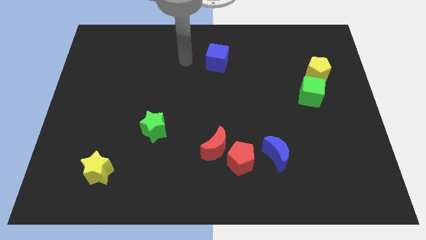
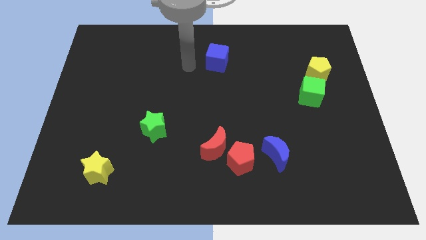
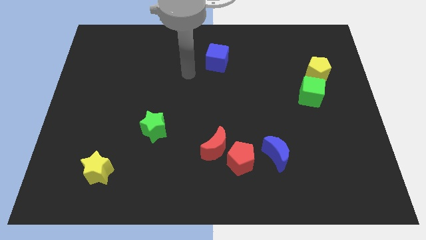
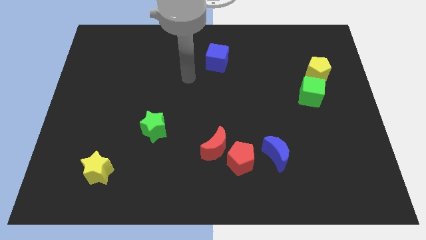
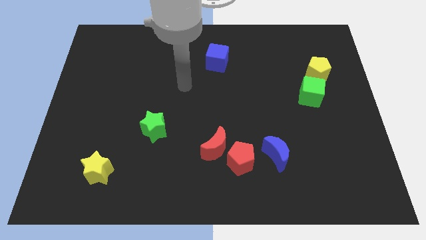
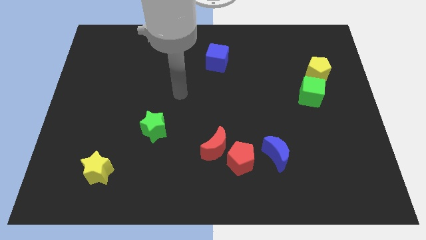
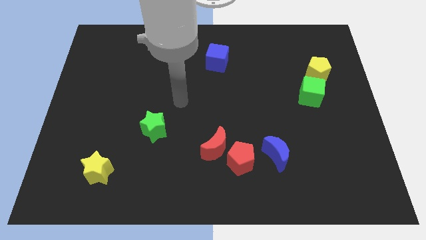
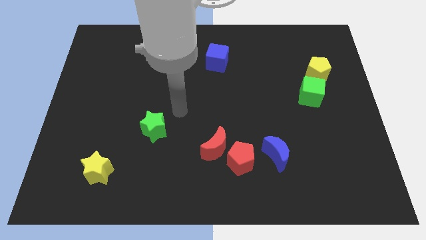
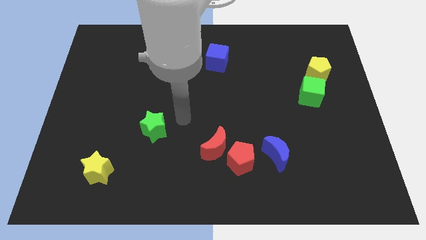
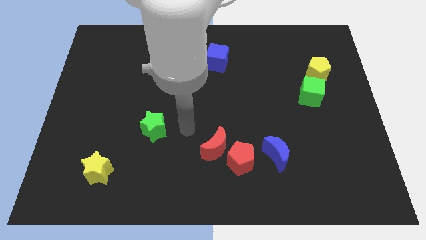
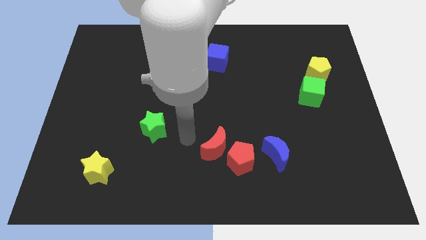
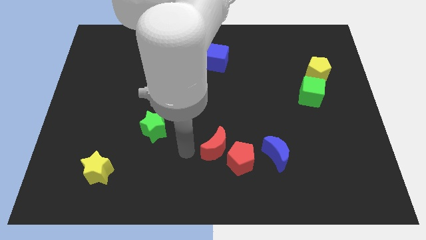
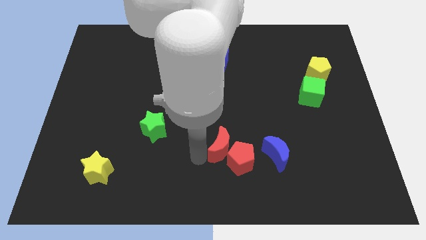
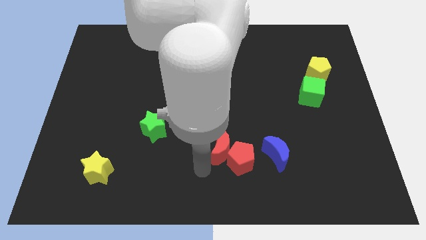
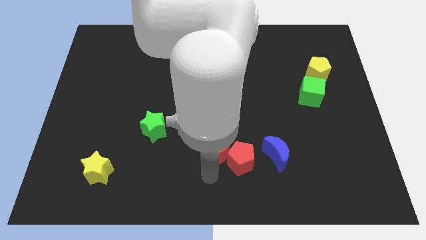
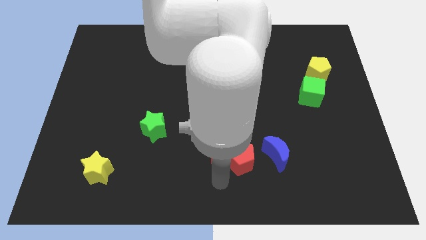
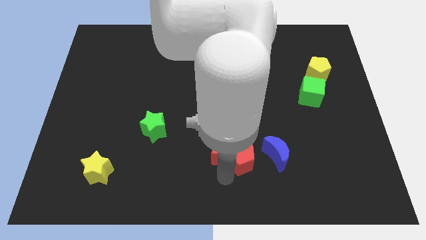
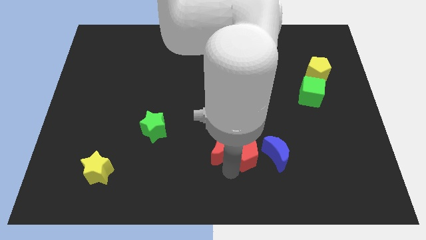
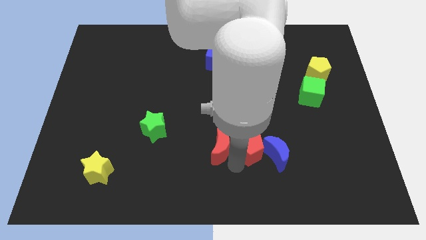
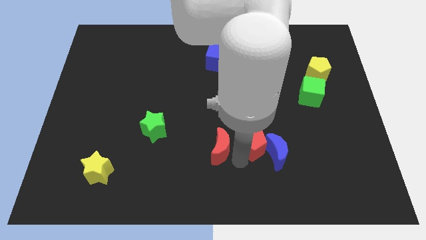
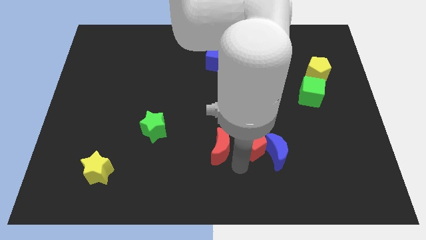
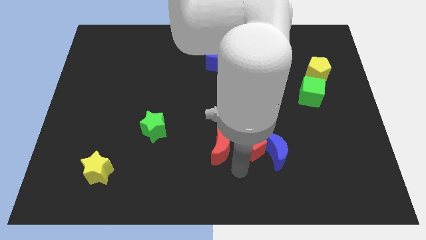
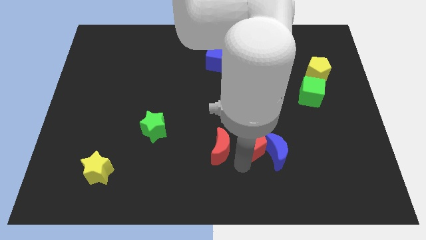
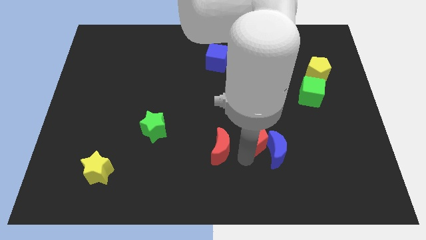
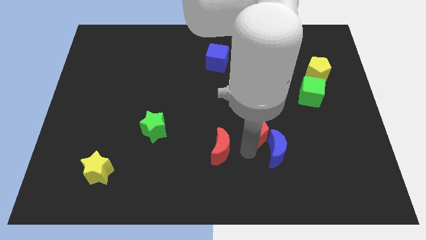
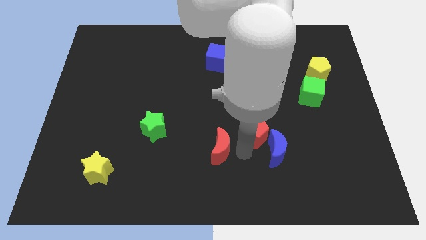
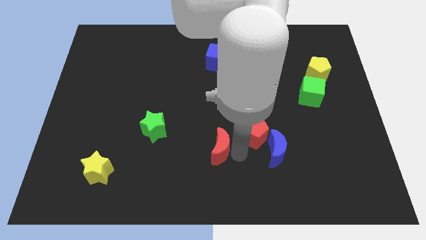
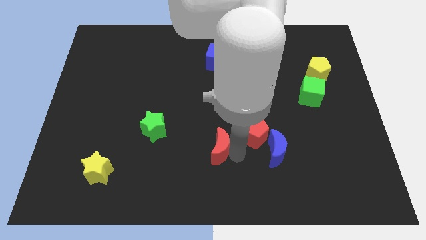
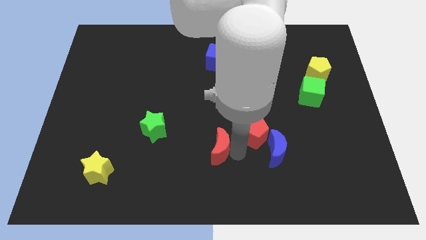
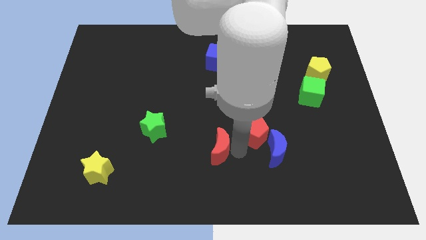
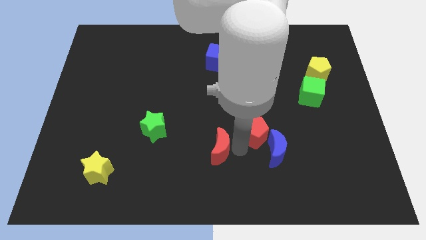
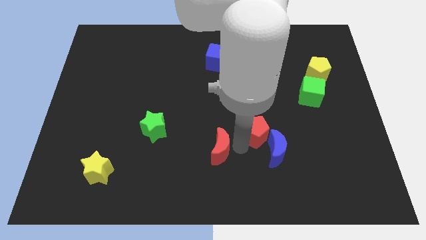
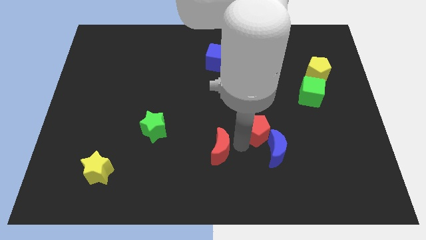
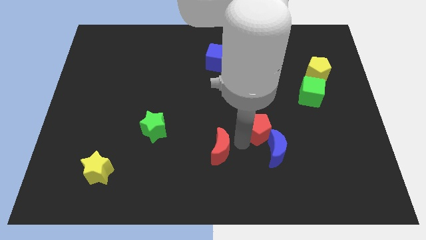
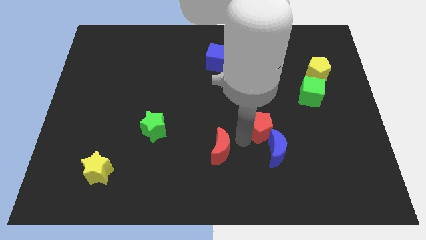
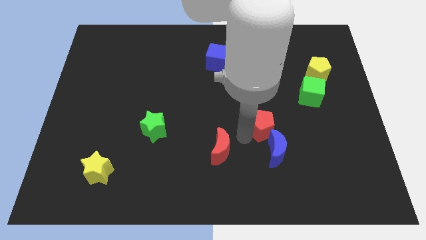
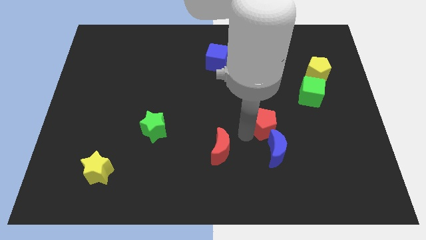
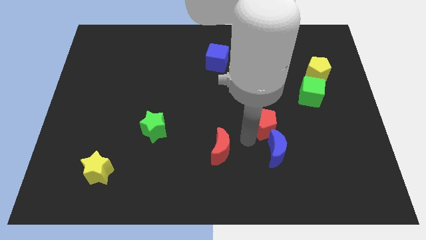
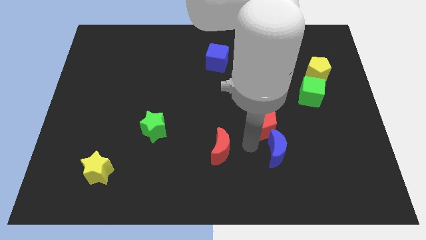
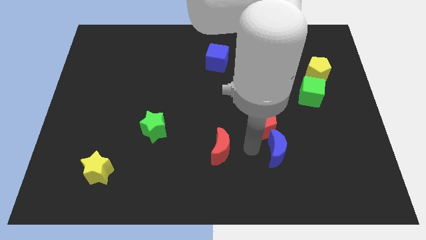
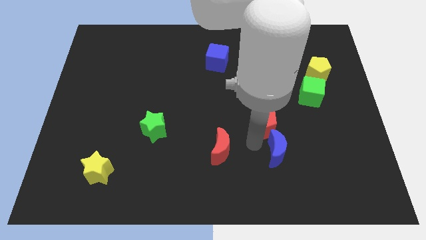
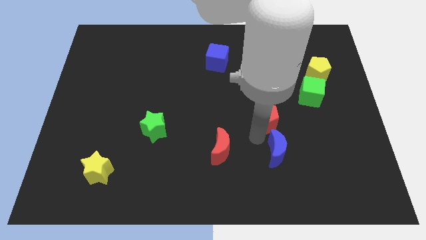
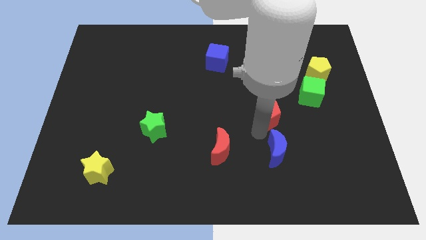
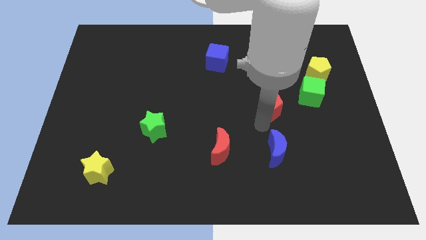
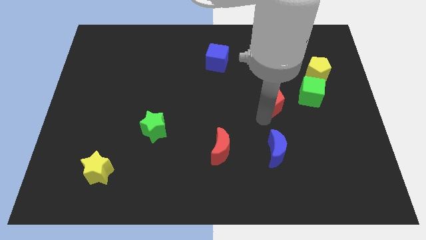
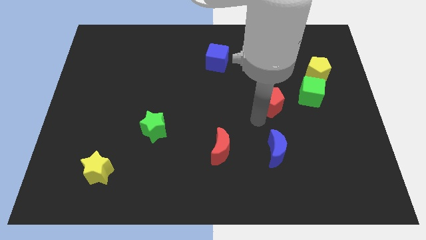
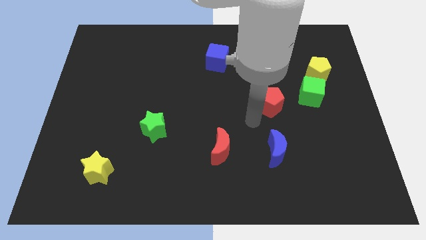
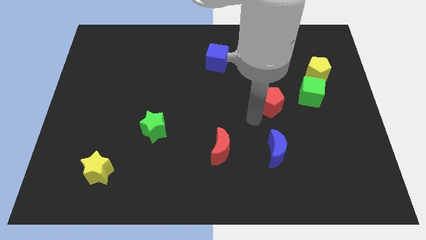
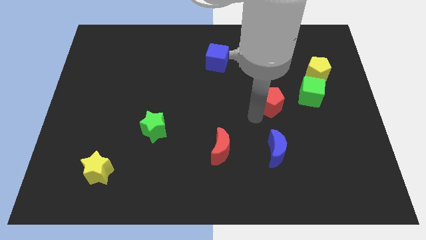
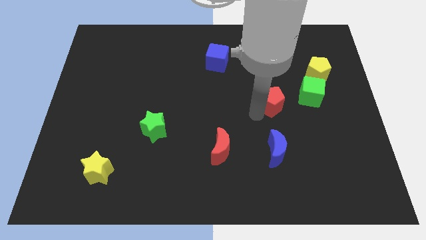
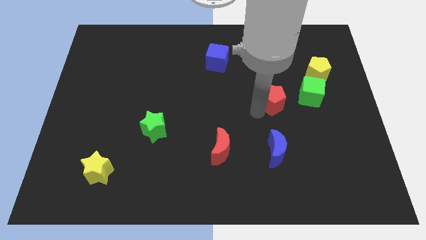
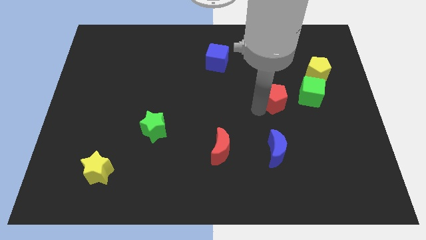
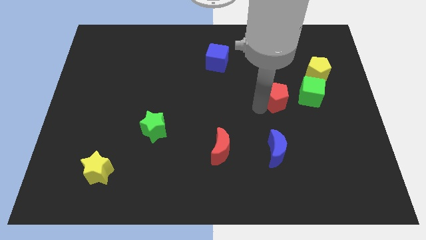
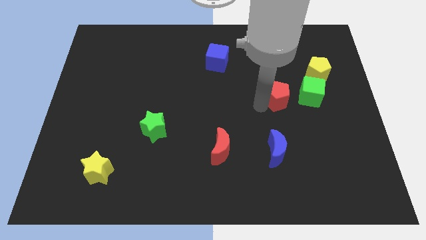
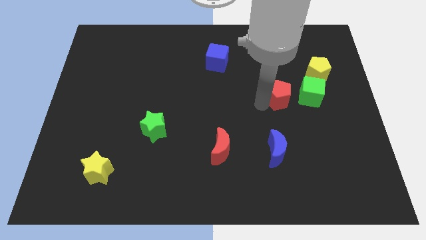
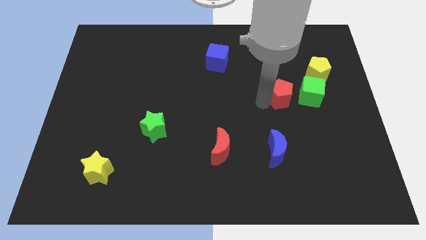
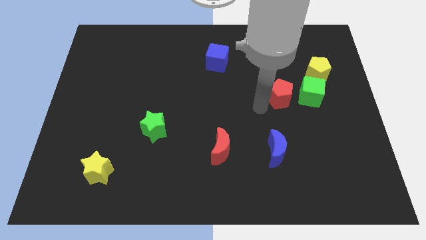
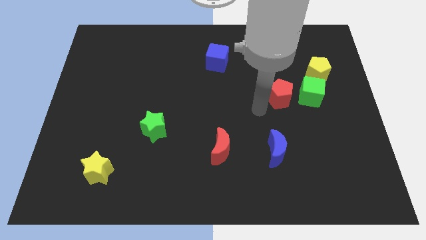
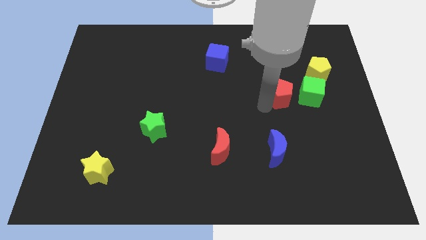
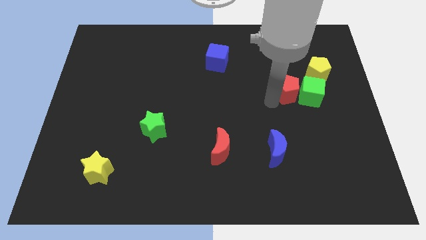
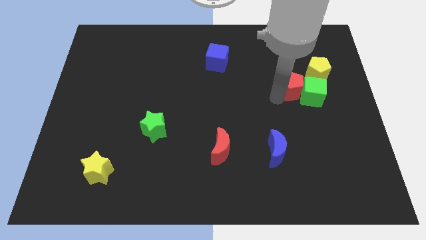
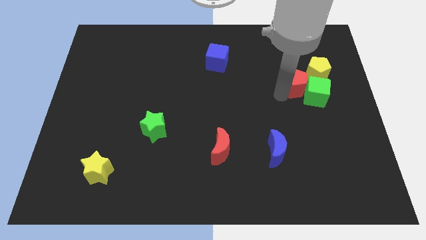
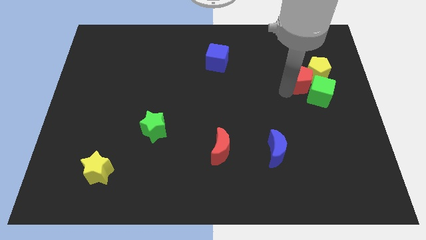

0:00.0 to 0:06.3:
push the red pentagon close to the yellow pentagon
